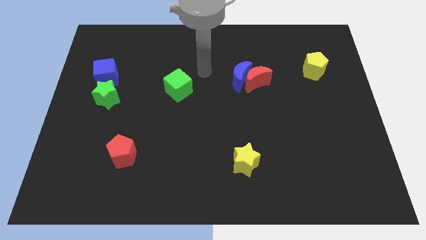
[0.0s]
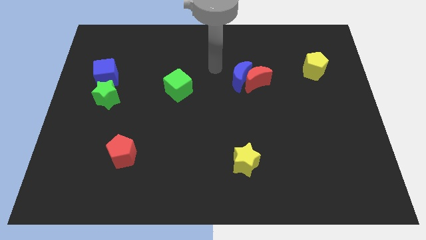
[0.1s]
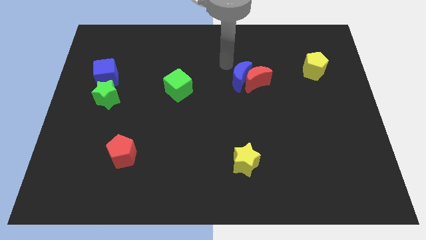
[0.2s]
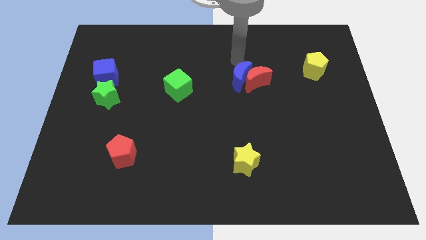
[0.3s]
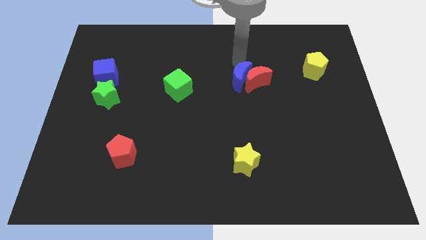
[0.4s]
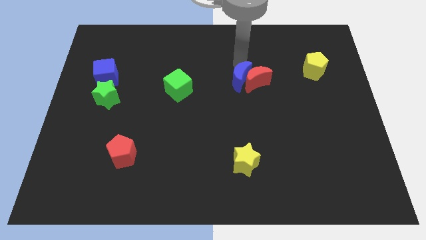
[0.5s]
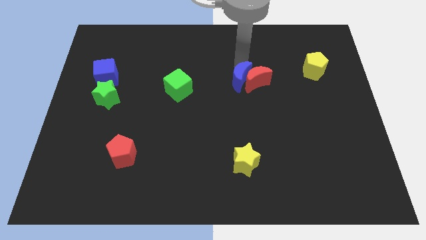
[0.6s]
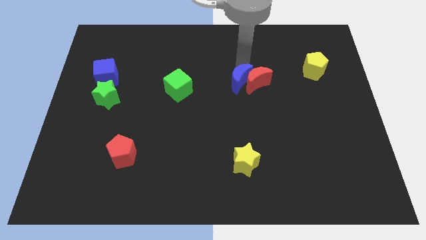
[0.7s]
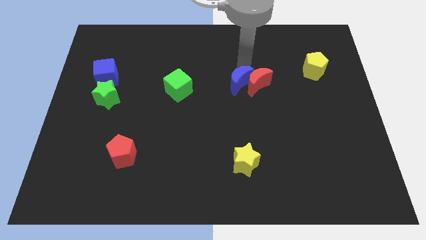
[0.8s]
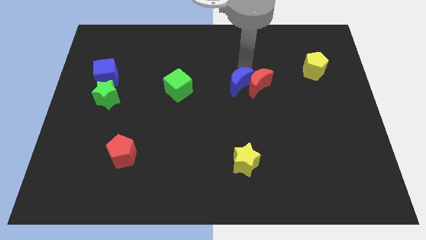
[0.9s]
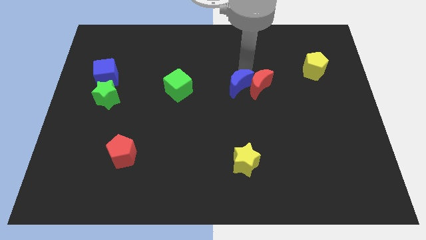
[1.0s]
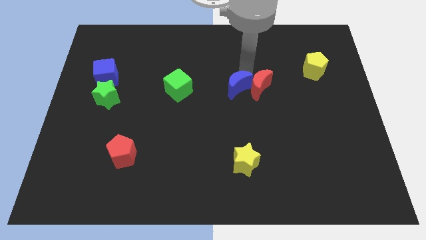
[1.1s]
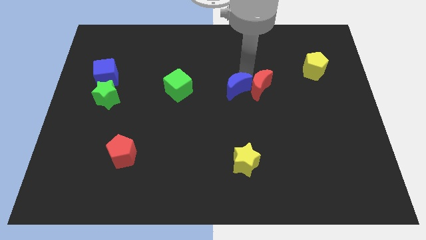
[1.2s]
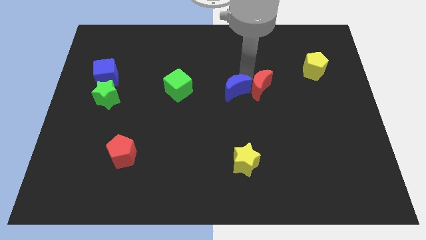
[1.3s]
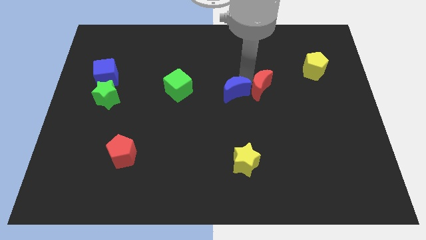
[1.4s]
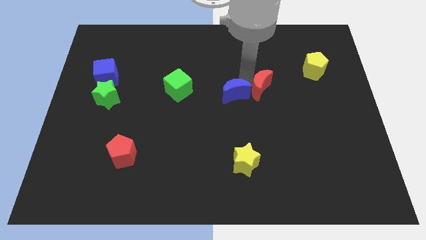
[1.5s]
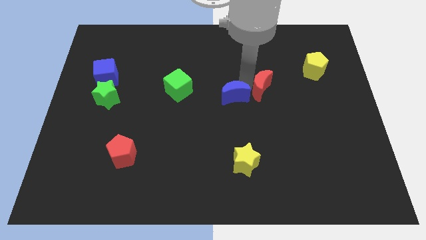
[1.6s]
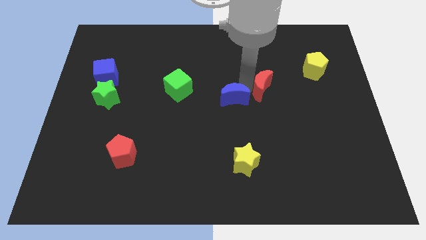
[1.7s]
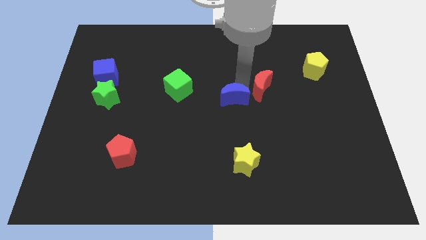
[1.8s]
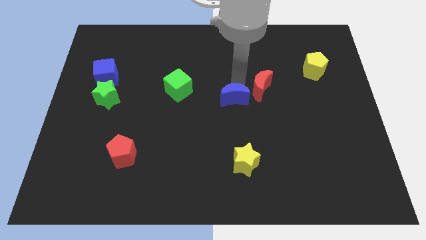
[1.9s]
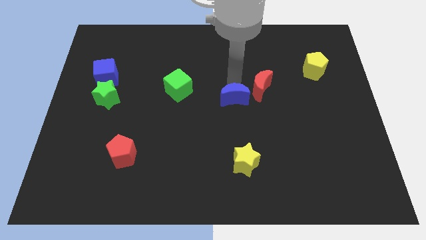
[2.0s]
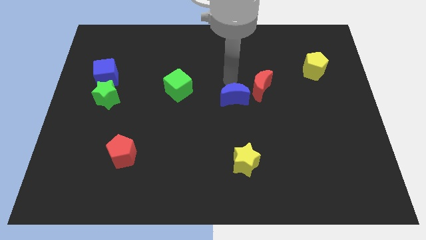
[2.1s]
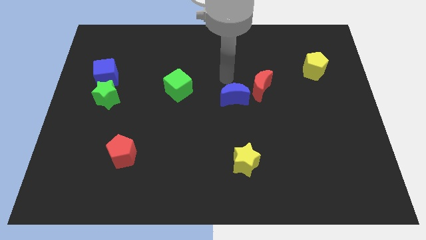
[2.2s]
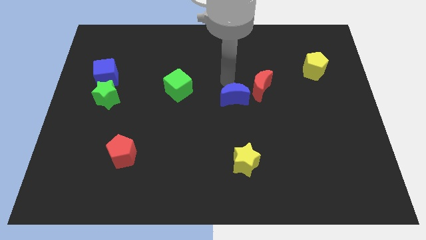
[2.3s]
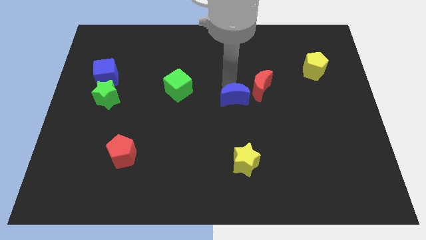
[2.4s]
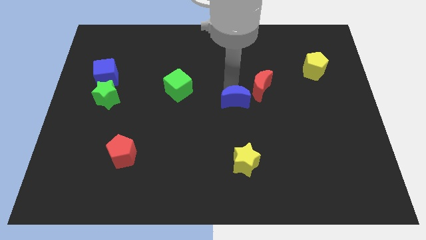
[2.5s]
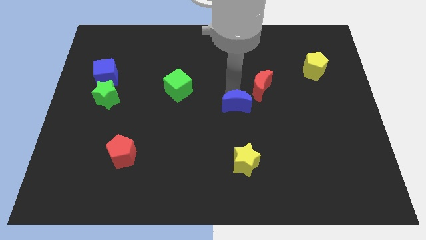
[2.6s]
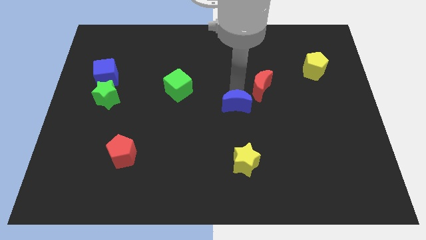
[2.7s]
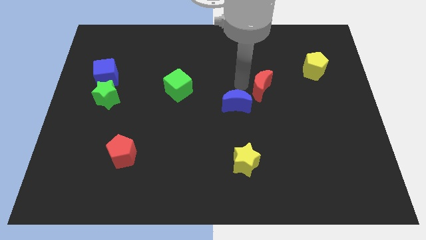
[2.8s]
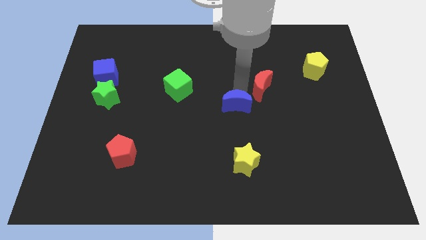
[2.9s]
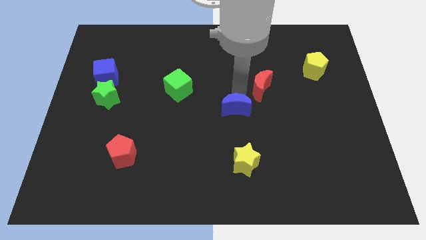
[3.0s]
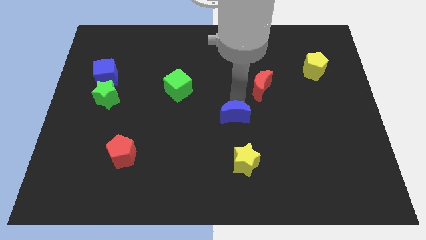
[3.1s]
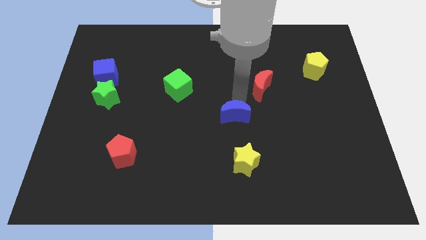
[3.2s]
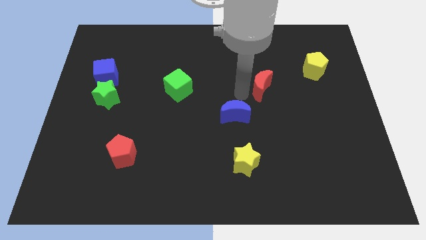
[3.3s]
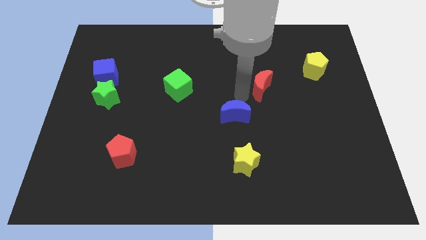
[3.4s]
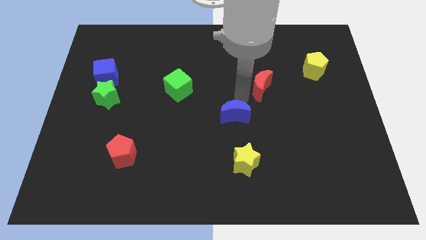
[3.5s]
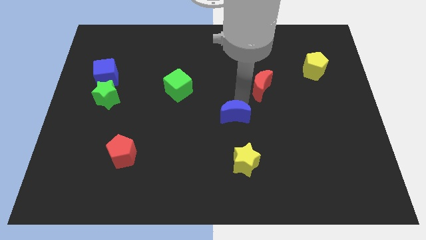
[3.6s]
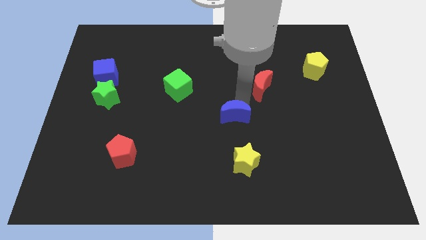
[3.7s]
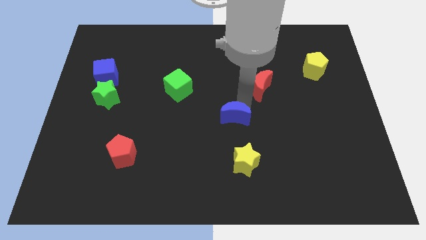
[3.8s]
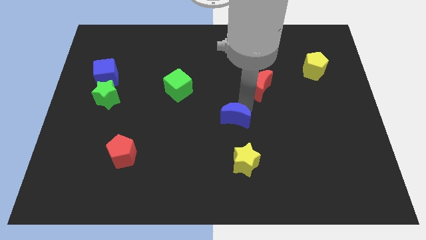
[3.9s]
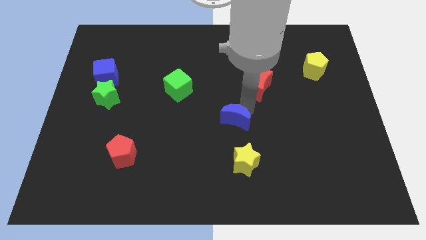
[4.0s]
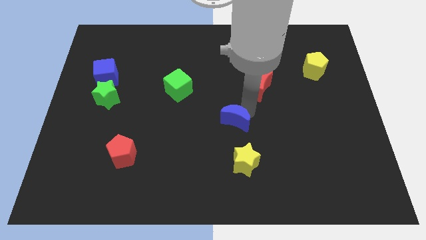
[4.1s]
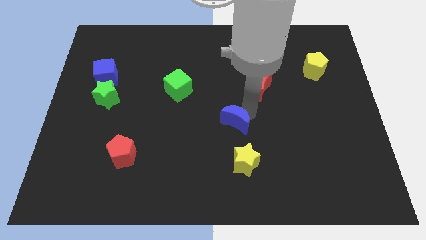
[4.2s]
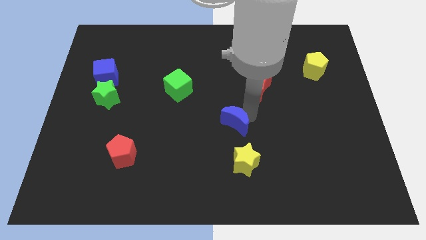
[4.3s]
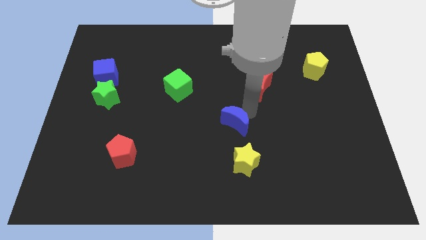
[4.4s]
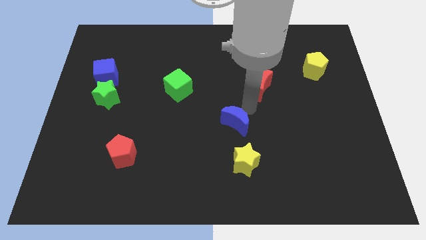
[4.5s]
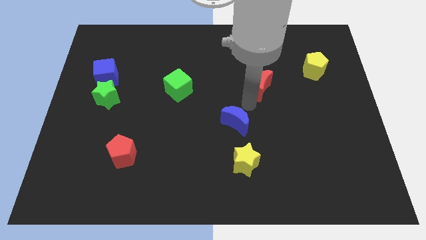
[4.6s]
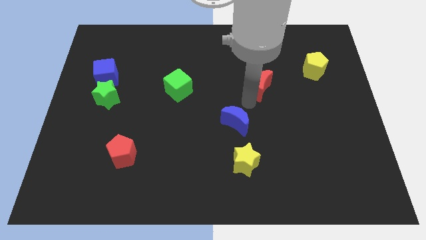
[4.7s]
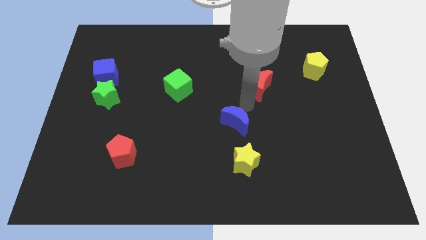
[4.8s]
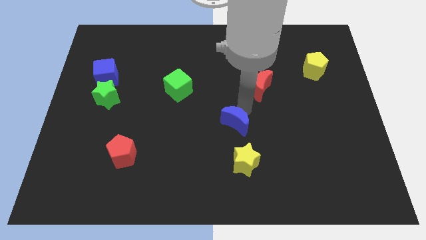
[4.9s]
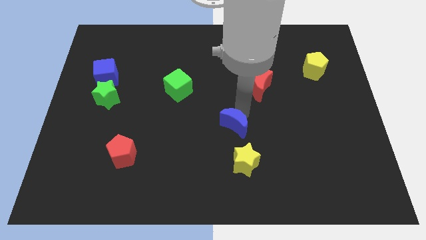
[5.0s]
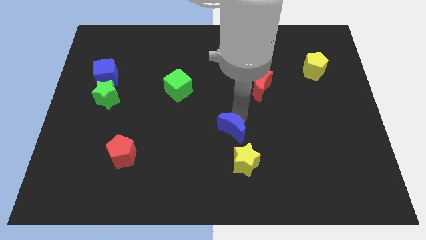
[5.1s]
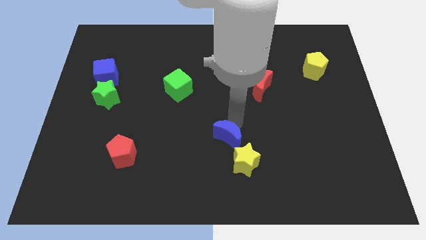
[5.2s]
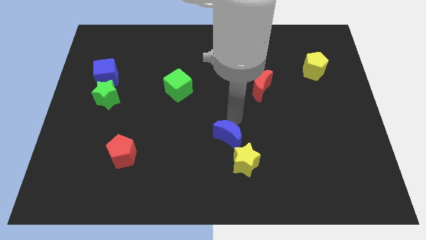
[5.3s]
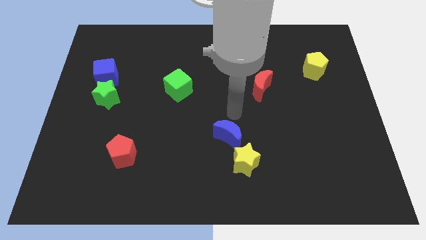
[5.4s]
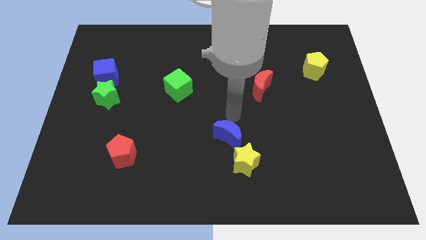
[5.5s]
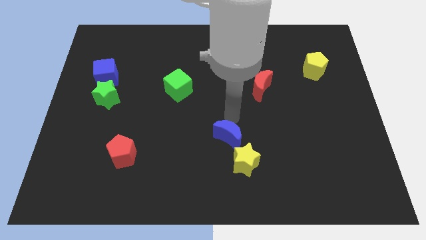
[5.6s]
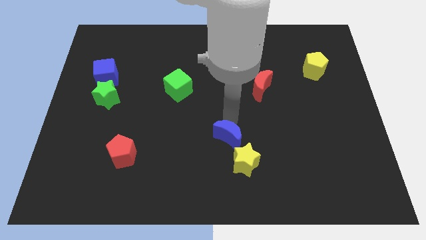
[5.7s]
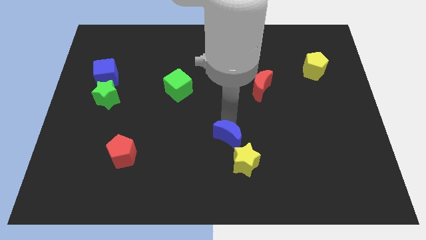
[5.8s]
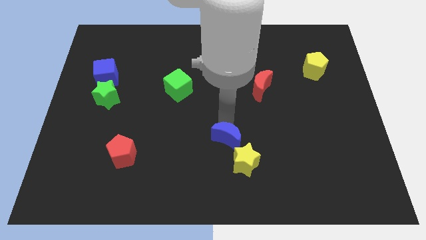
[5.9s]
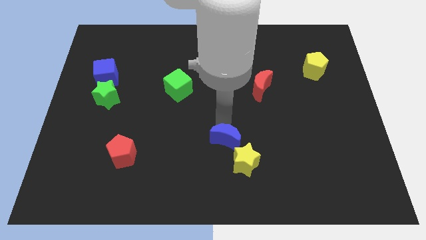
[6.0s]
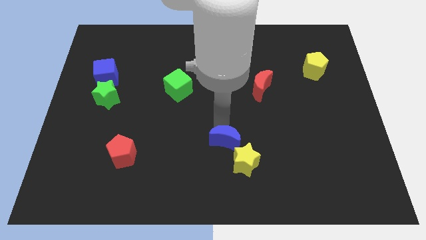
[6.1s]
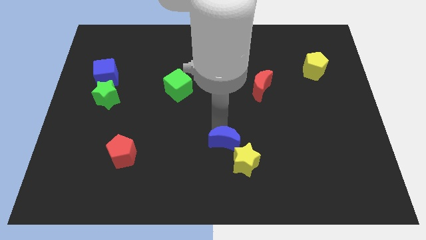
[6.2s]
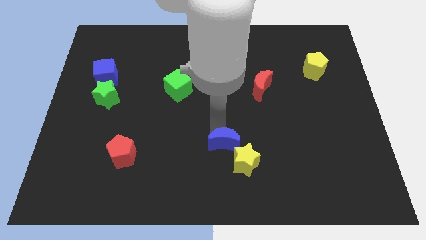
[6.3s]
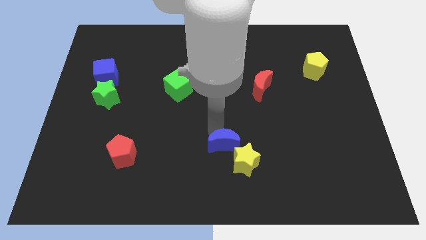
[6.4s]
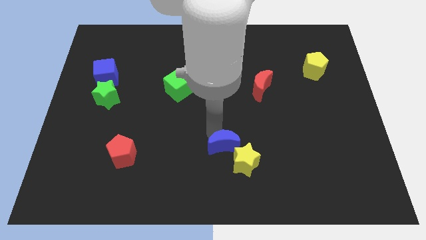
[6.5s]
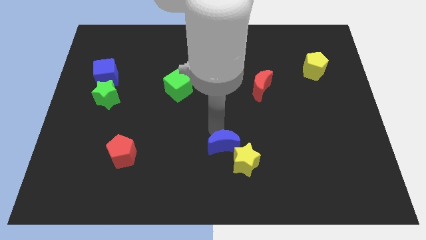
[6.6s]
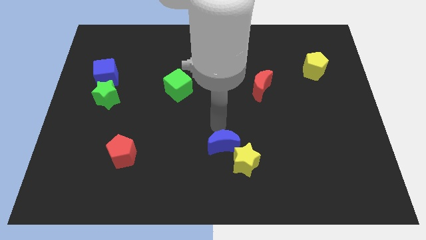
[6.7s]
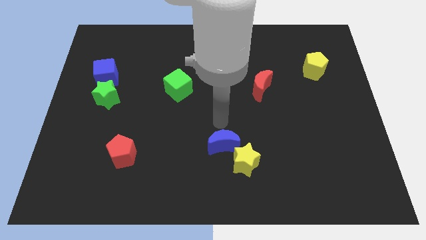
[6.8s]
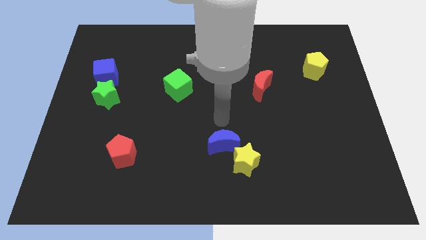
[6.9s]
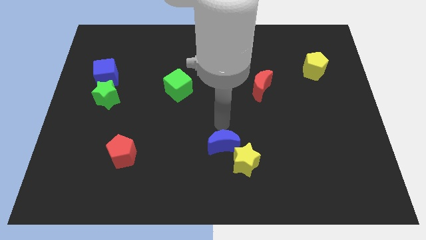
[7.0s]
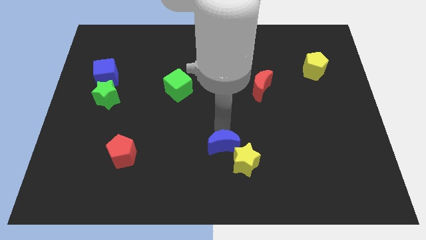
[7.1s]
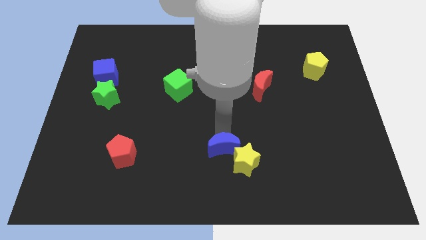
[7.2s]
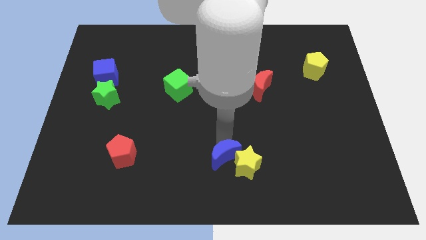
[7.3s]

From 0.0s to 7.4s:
push the blue moon to the bottom
